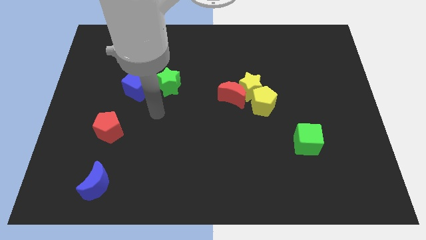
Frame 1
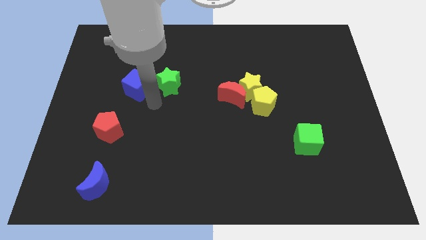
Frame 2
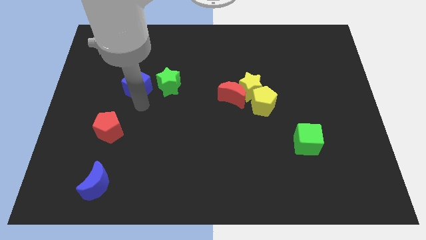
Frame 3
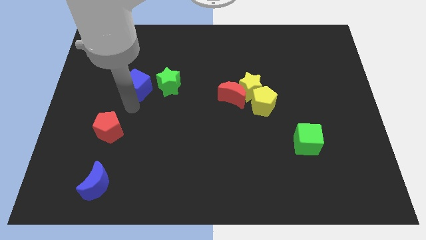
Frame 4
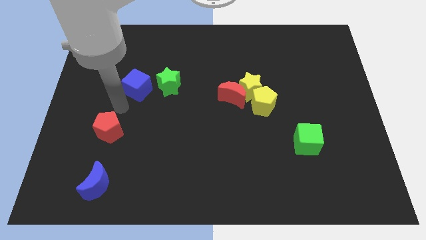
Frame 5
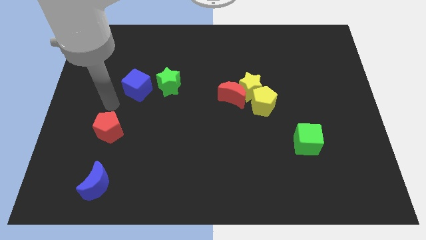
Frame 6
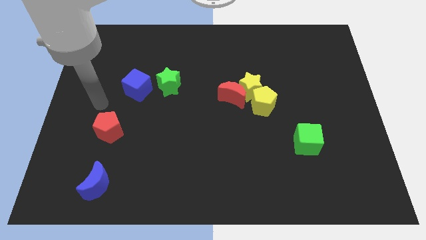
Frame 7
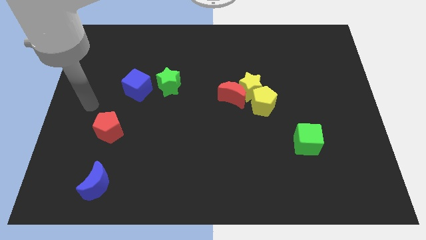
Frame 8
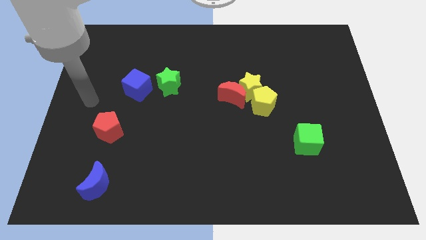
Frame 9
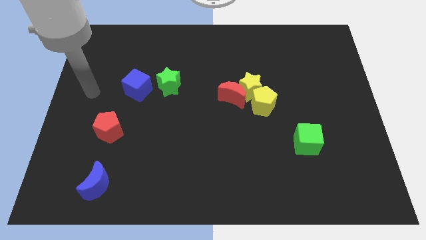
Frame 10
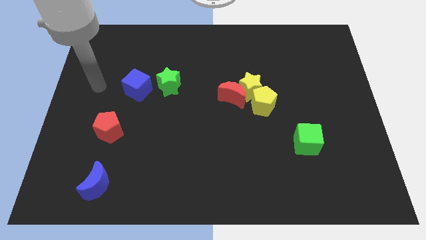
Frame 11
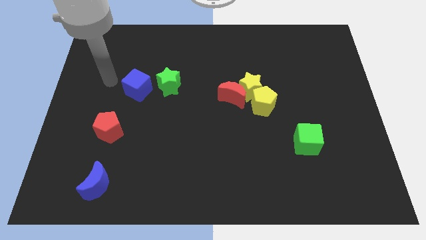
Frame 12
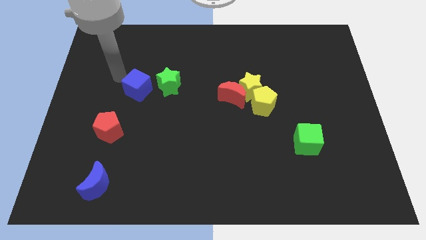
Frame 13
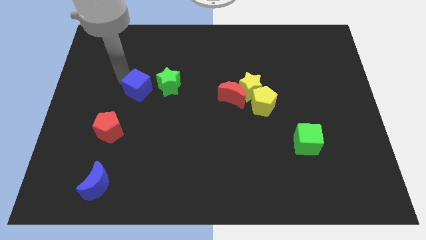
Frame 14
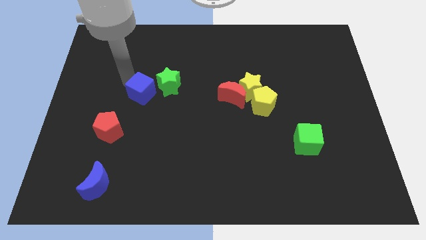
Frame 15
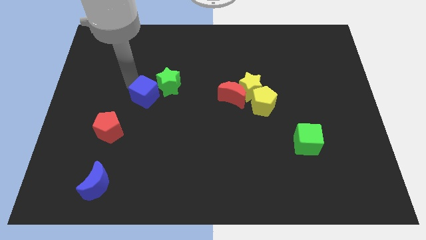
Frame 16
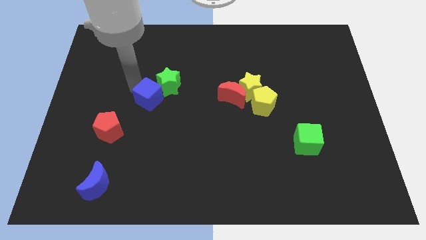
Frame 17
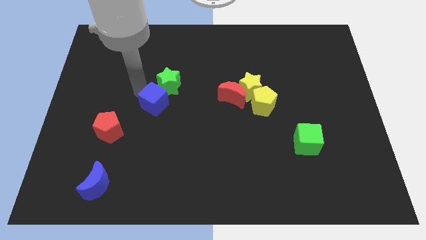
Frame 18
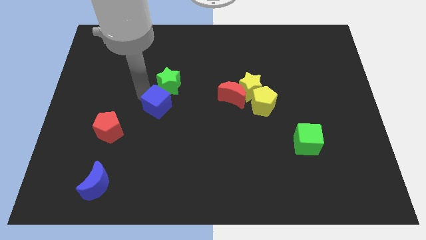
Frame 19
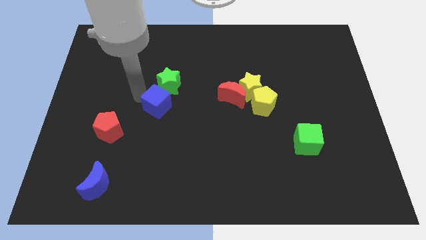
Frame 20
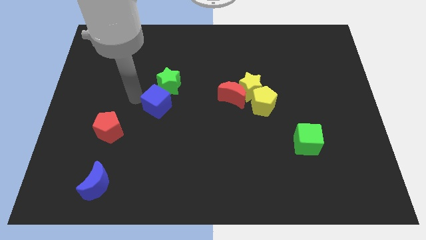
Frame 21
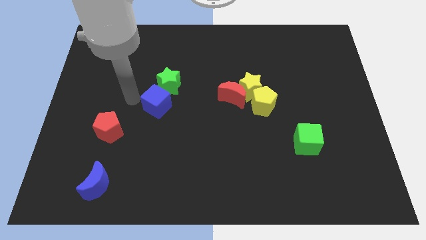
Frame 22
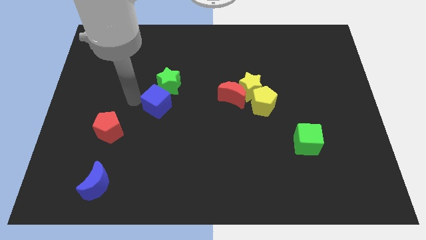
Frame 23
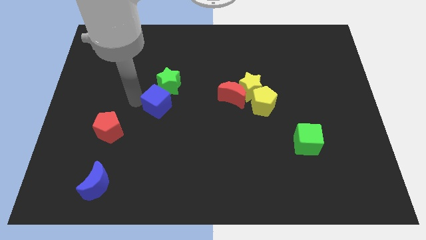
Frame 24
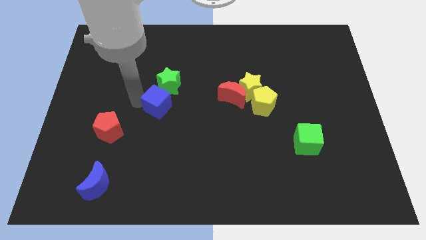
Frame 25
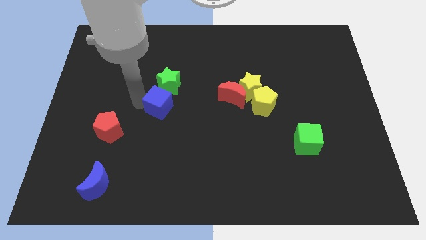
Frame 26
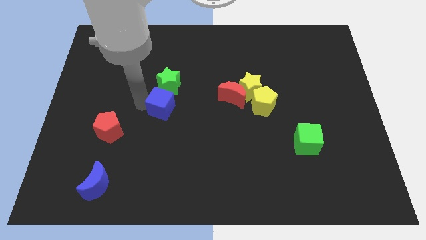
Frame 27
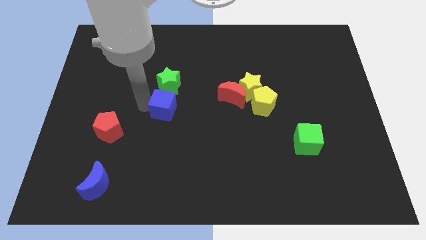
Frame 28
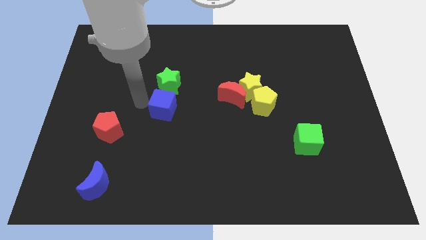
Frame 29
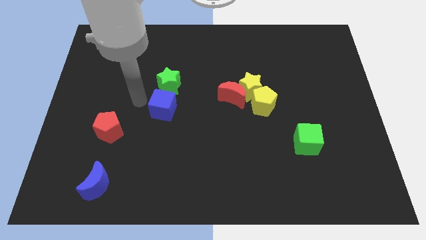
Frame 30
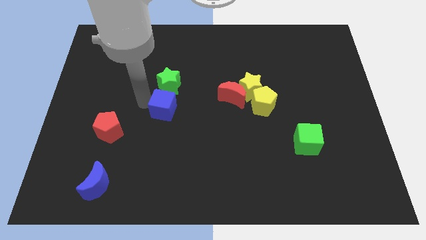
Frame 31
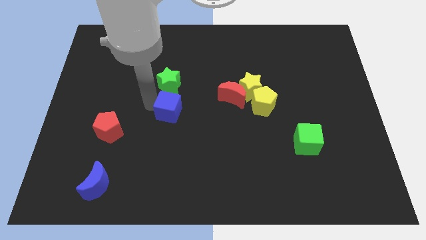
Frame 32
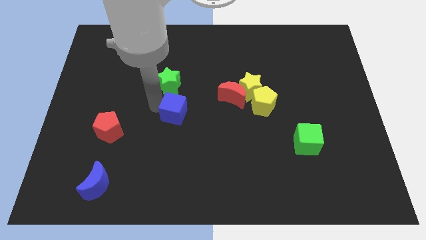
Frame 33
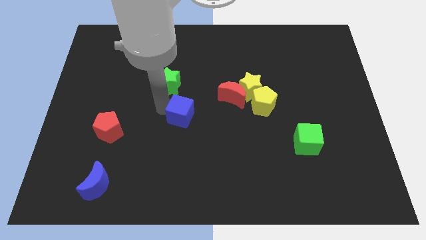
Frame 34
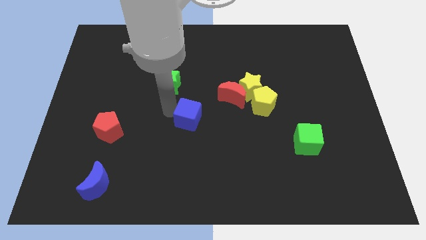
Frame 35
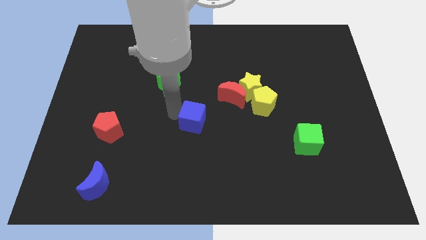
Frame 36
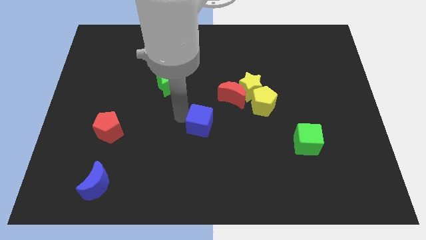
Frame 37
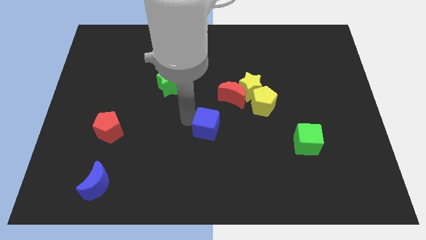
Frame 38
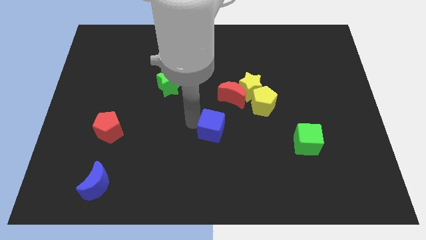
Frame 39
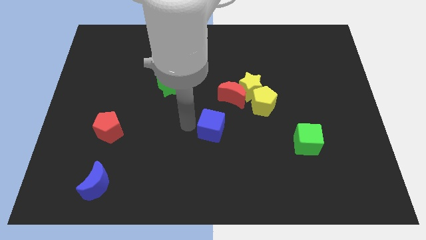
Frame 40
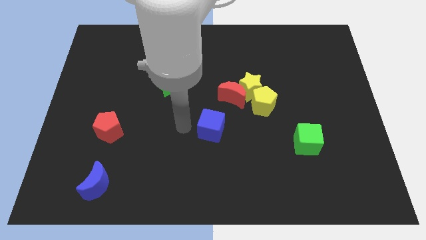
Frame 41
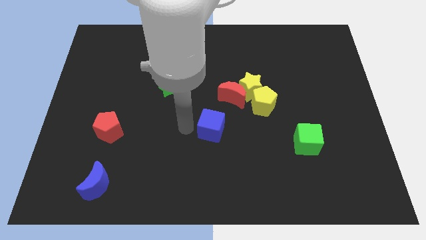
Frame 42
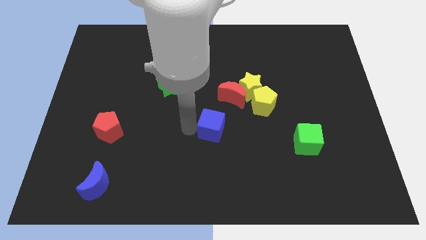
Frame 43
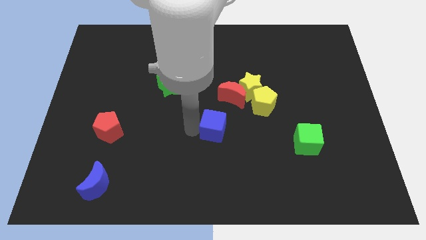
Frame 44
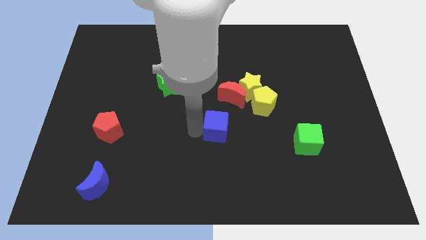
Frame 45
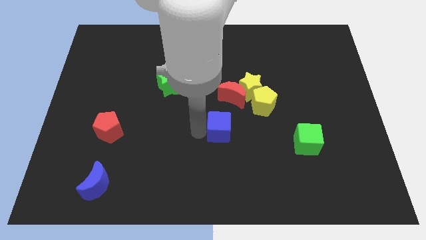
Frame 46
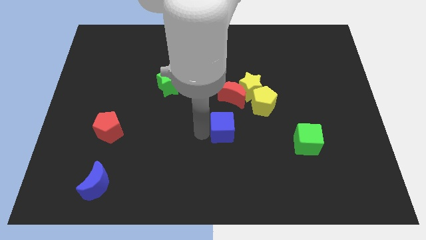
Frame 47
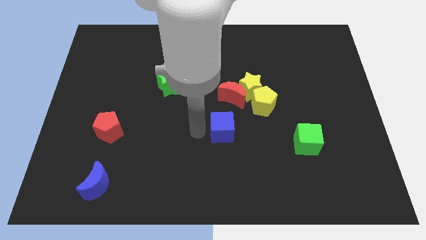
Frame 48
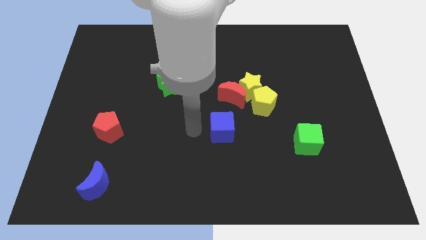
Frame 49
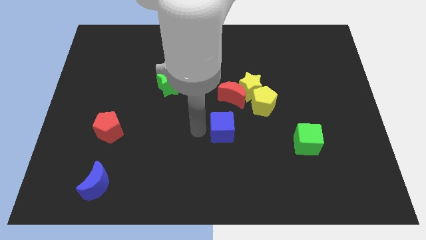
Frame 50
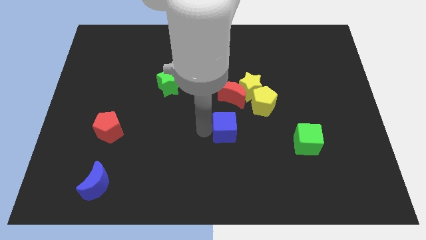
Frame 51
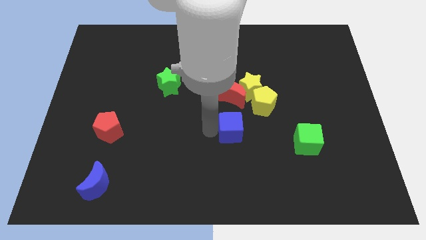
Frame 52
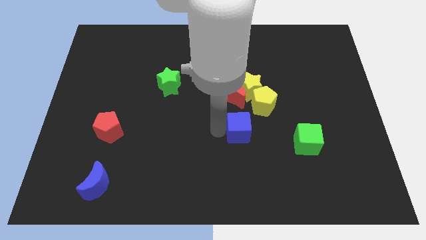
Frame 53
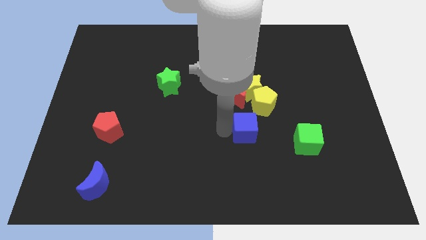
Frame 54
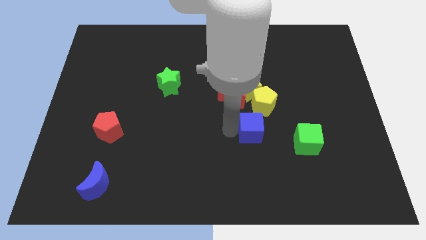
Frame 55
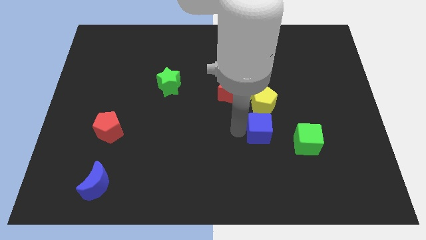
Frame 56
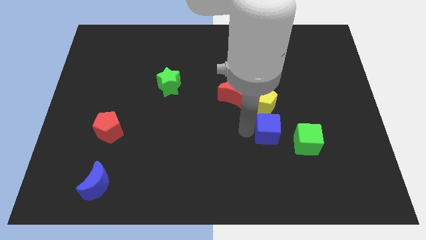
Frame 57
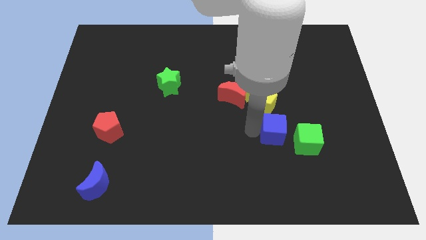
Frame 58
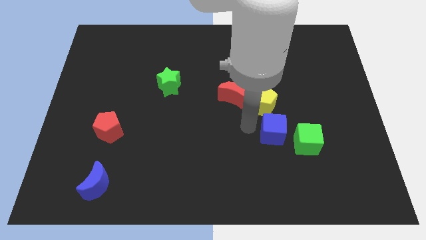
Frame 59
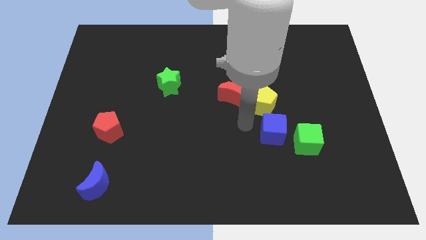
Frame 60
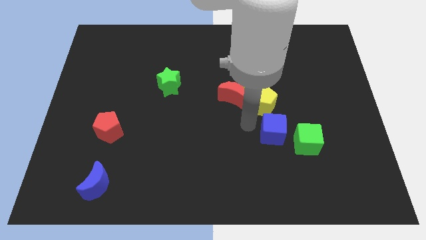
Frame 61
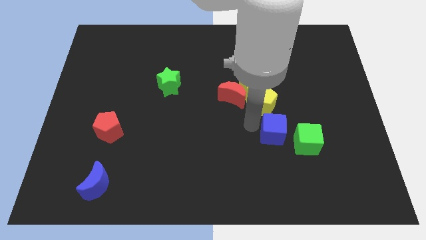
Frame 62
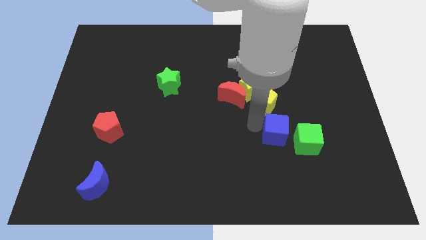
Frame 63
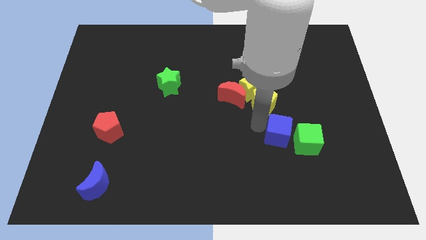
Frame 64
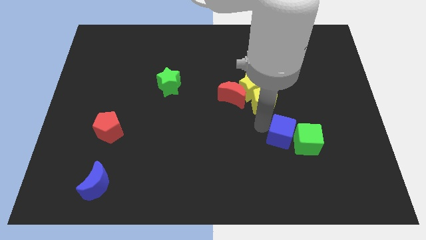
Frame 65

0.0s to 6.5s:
slide the blue cube close to the green cube

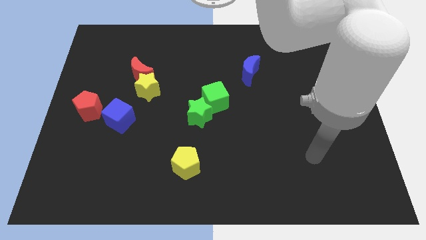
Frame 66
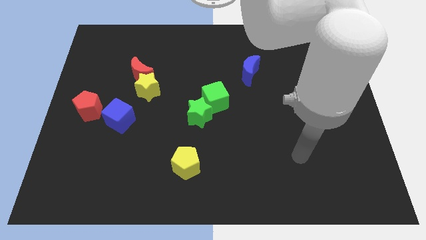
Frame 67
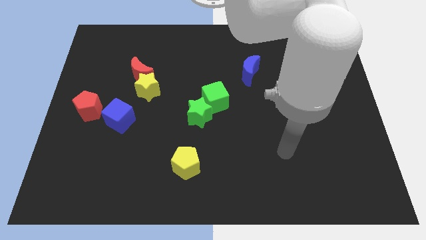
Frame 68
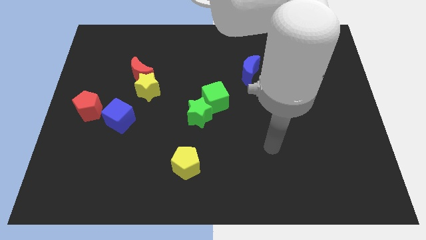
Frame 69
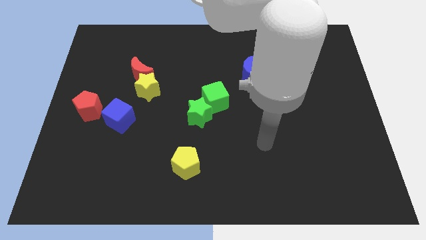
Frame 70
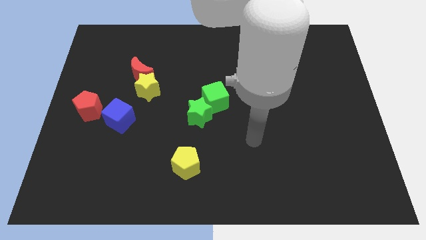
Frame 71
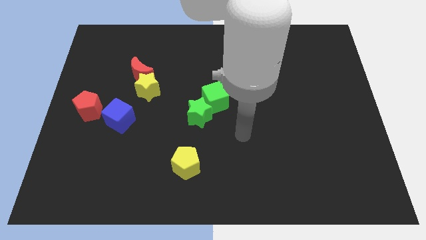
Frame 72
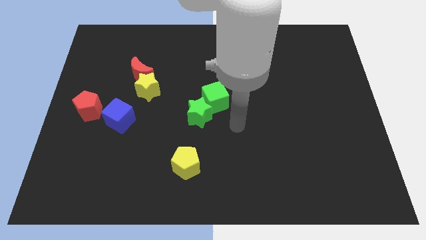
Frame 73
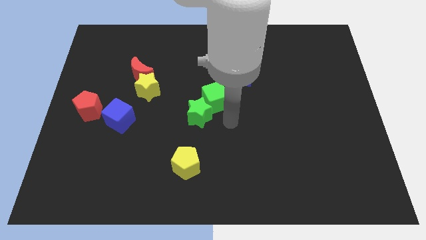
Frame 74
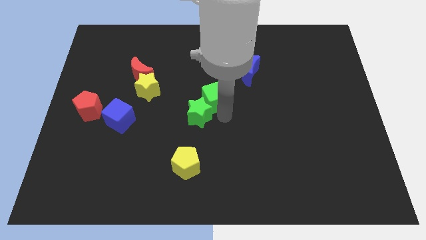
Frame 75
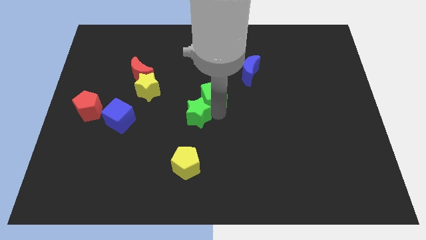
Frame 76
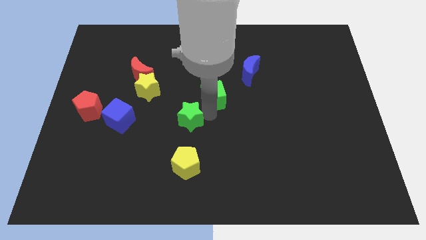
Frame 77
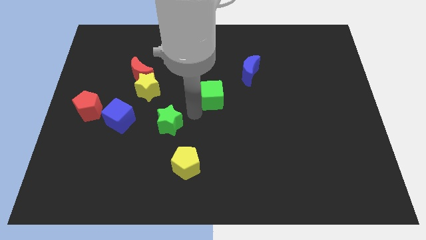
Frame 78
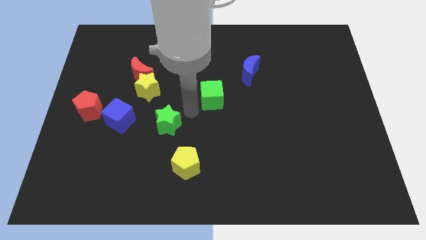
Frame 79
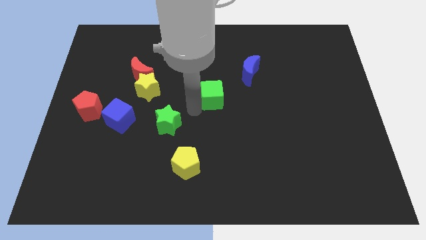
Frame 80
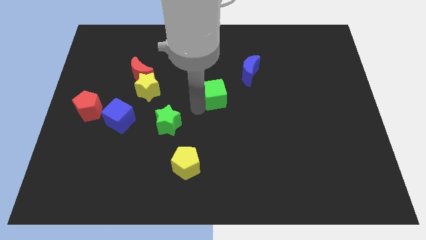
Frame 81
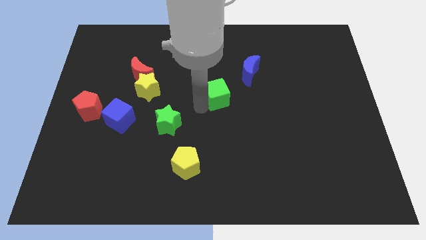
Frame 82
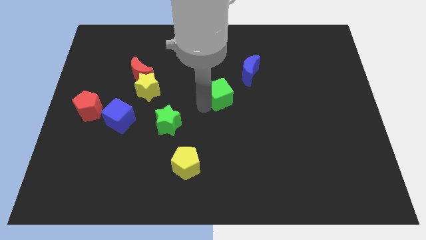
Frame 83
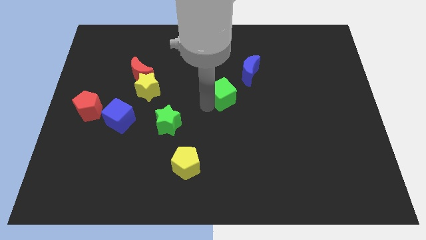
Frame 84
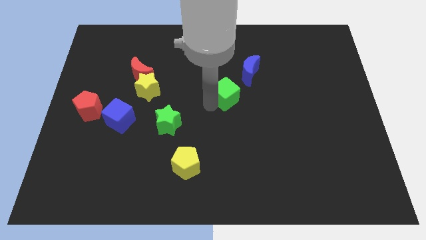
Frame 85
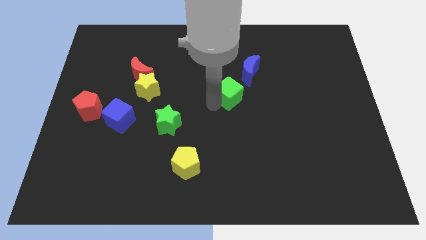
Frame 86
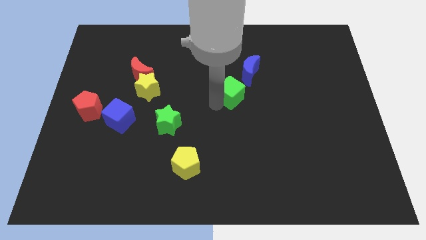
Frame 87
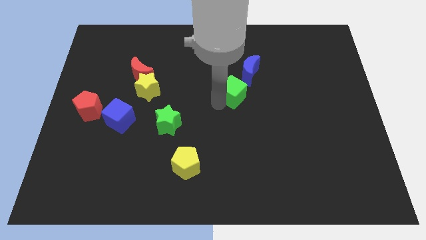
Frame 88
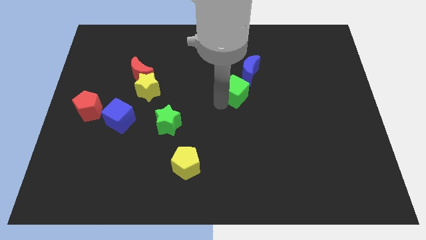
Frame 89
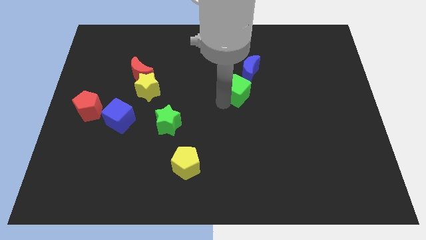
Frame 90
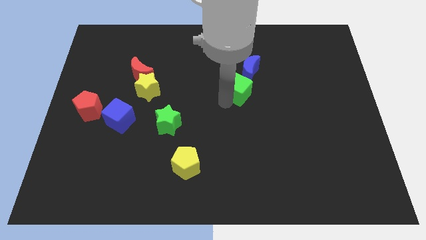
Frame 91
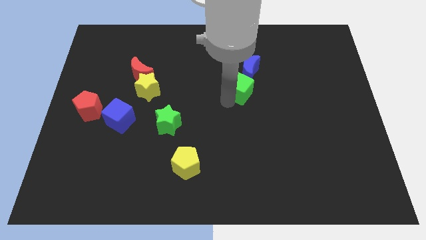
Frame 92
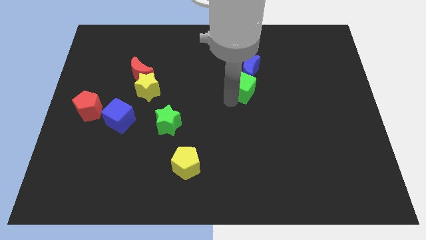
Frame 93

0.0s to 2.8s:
move the green cube to the blue moon
